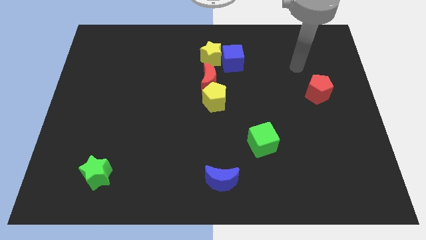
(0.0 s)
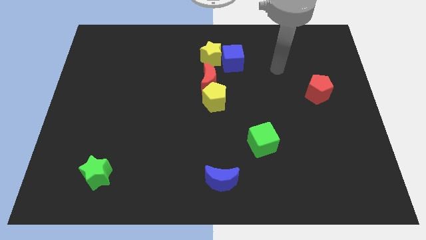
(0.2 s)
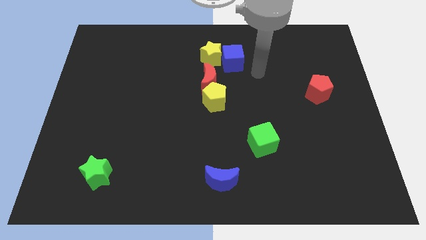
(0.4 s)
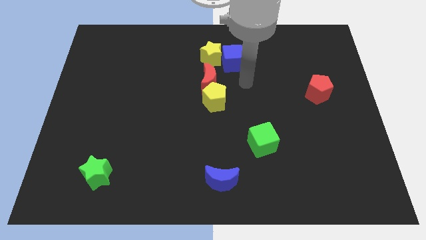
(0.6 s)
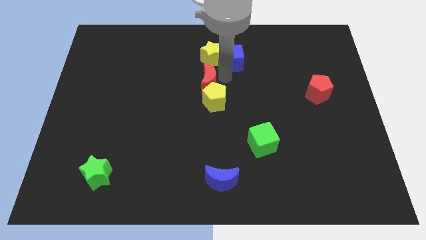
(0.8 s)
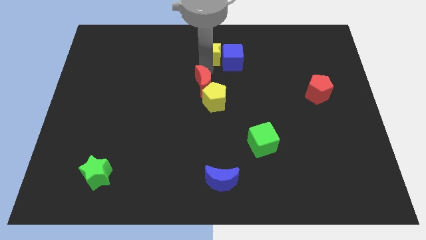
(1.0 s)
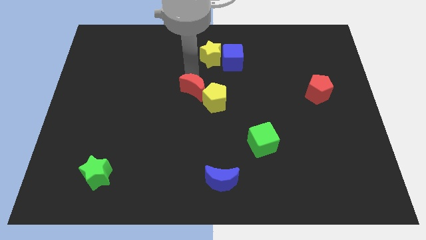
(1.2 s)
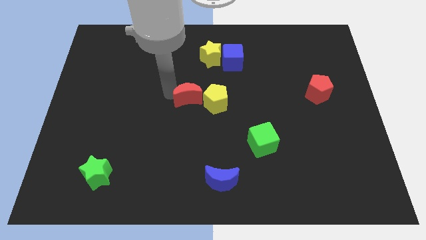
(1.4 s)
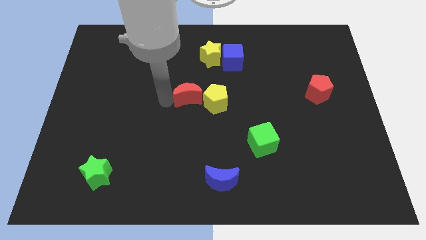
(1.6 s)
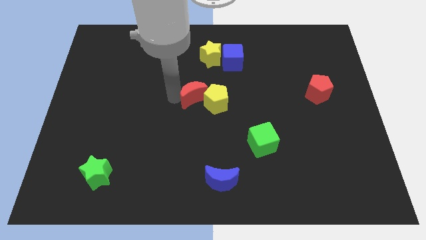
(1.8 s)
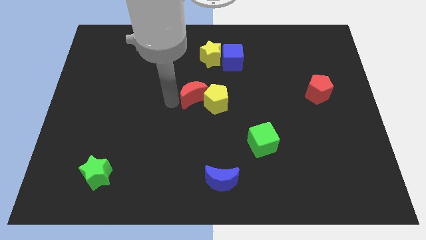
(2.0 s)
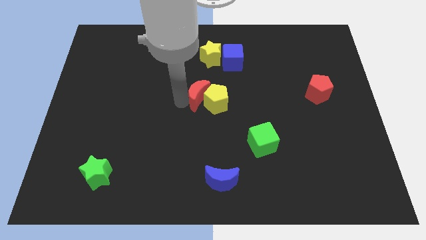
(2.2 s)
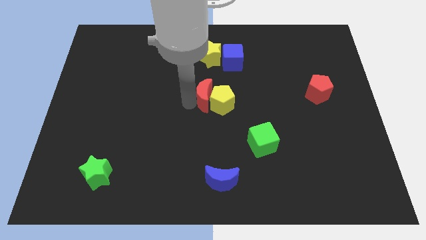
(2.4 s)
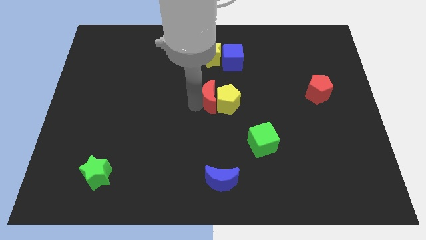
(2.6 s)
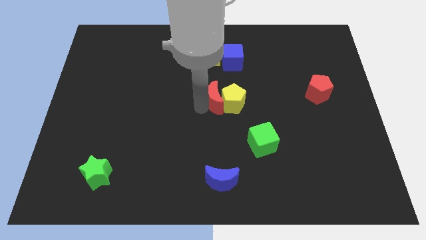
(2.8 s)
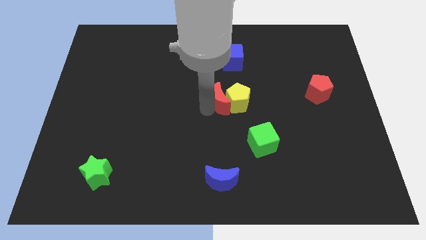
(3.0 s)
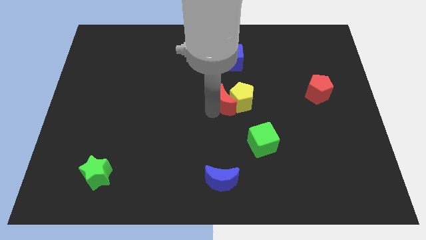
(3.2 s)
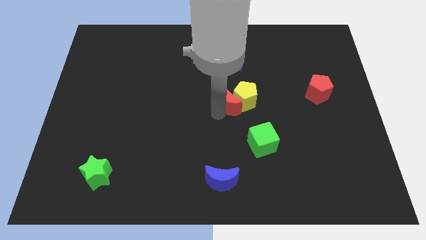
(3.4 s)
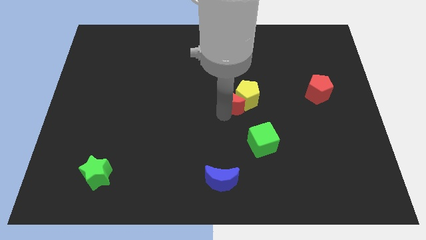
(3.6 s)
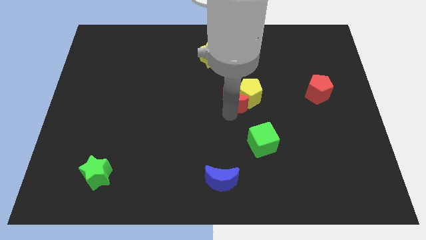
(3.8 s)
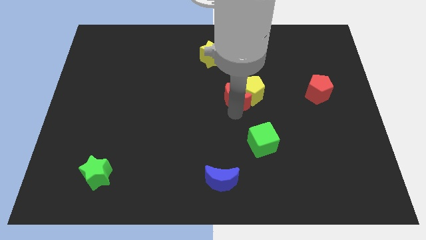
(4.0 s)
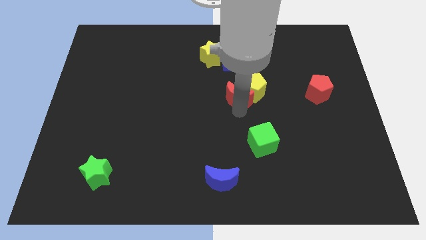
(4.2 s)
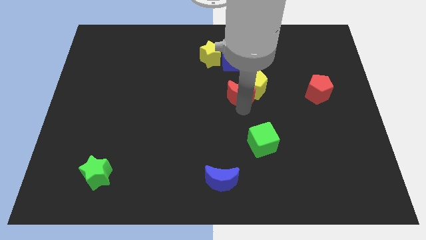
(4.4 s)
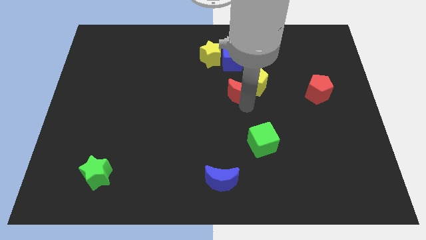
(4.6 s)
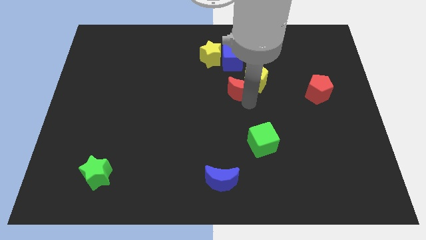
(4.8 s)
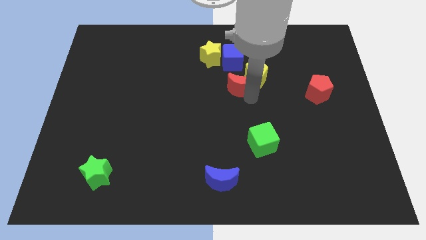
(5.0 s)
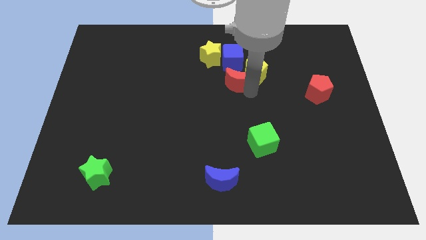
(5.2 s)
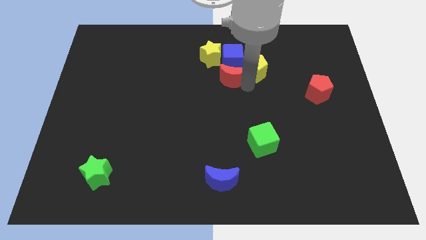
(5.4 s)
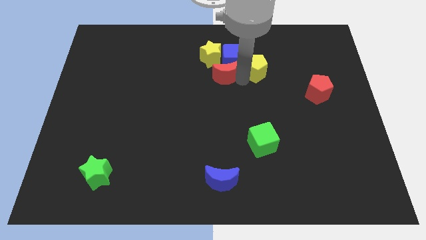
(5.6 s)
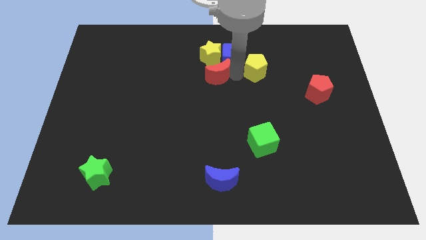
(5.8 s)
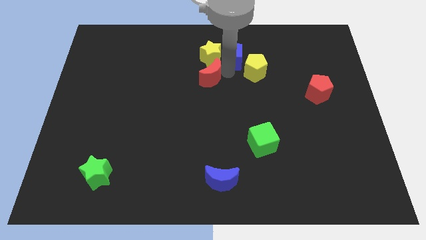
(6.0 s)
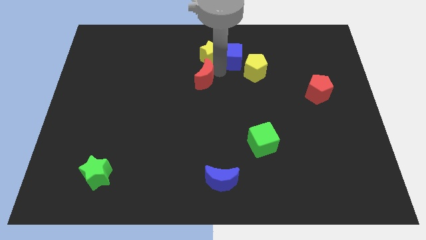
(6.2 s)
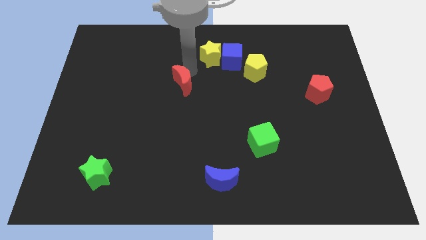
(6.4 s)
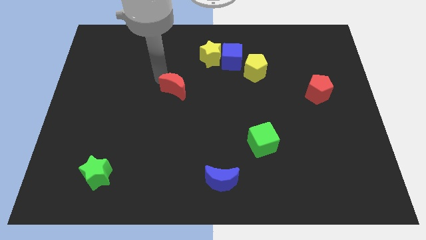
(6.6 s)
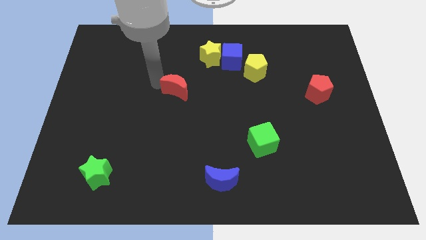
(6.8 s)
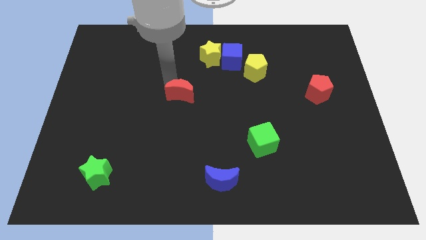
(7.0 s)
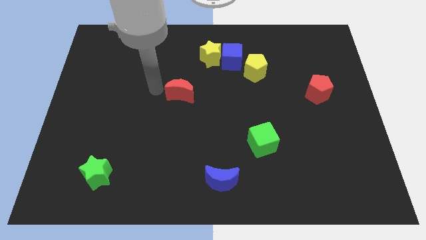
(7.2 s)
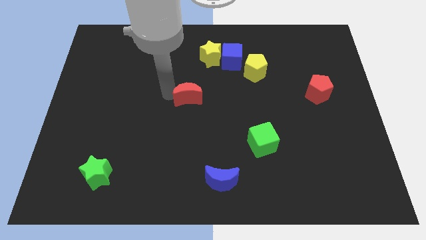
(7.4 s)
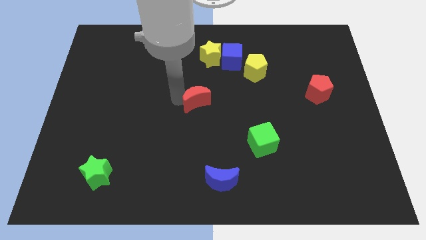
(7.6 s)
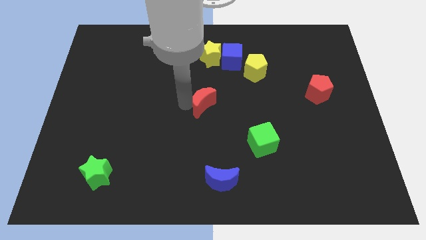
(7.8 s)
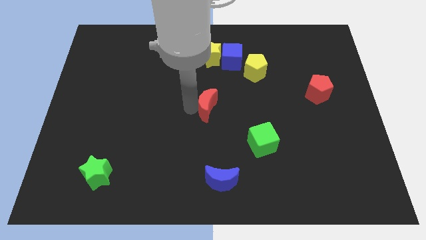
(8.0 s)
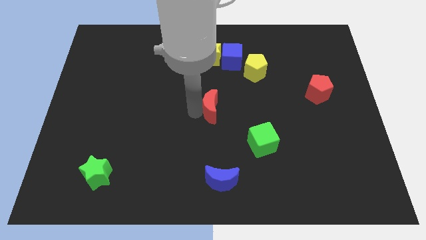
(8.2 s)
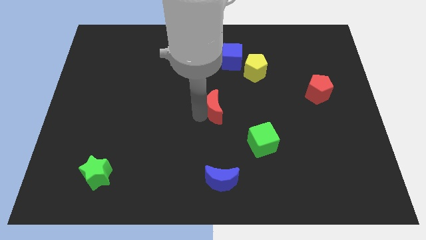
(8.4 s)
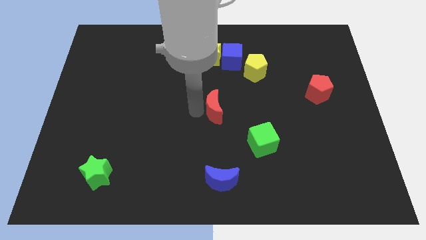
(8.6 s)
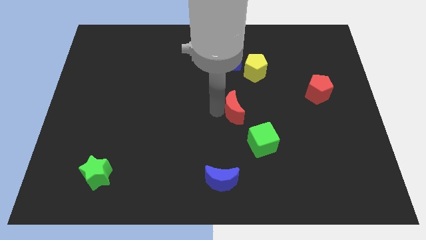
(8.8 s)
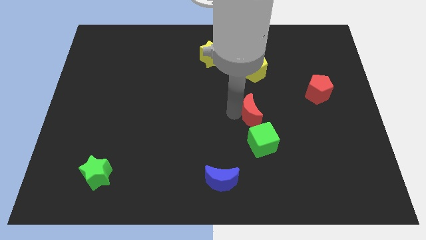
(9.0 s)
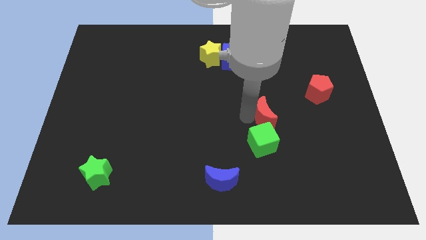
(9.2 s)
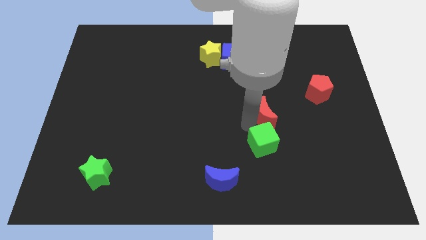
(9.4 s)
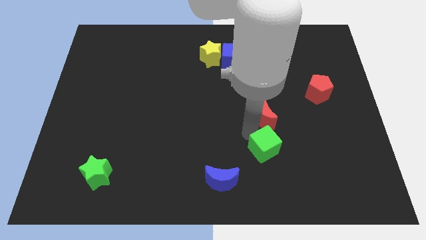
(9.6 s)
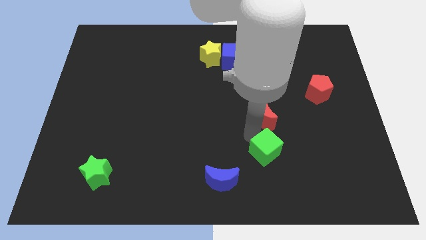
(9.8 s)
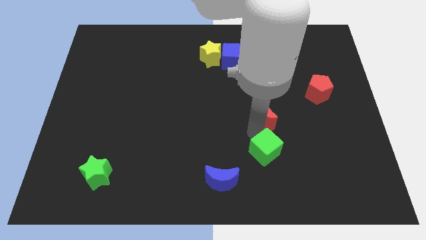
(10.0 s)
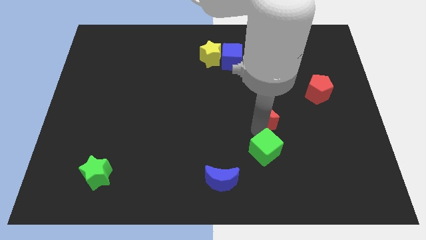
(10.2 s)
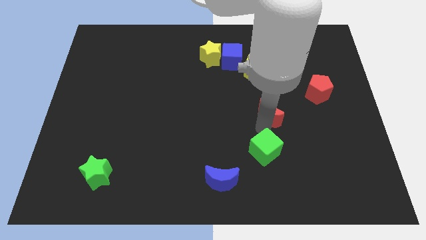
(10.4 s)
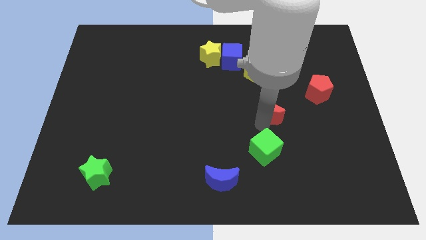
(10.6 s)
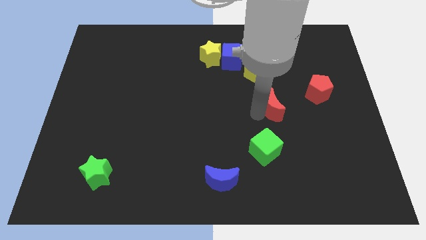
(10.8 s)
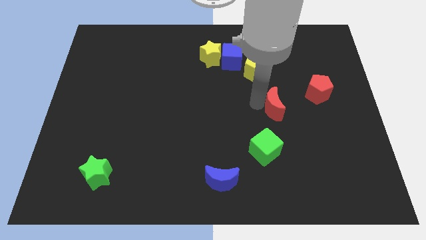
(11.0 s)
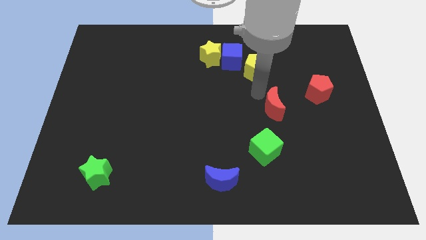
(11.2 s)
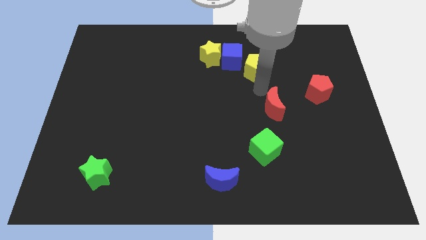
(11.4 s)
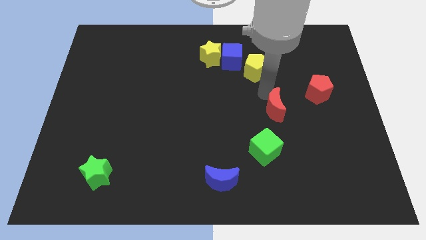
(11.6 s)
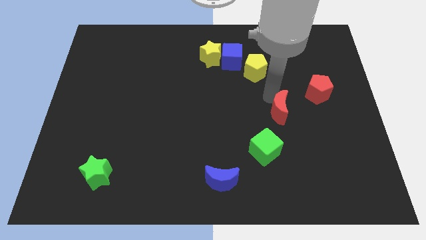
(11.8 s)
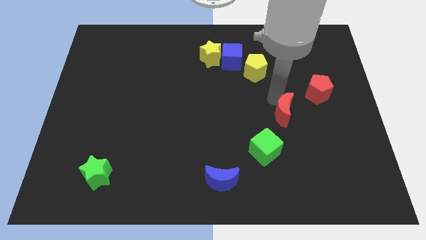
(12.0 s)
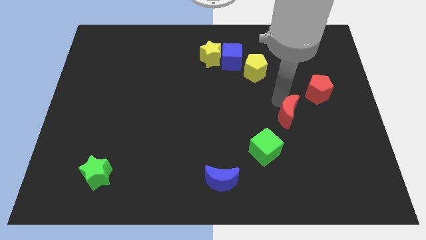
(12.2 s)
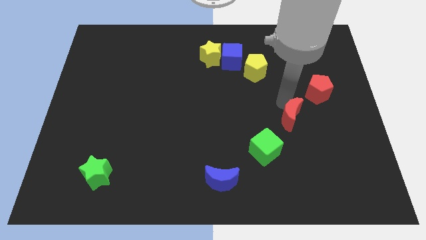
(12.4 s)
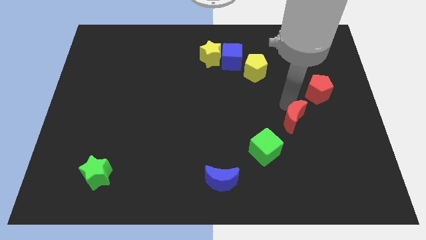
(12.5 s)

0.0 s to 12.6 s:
push the red moon diagonally down and to the right

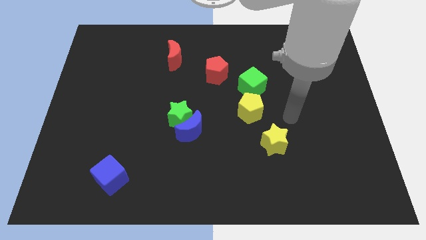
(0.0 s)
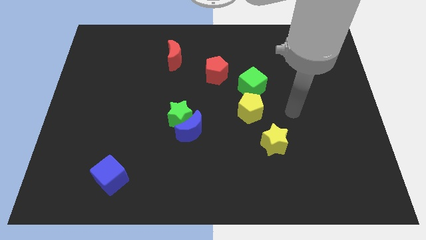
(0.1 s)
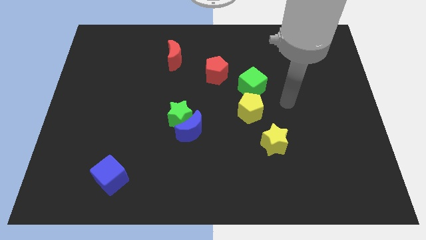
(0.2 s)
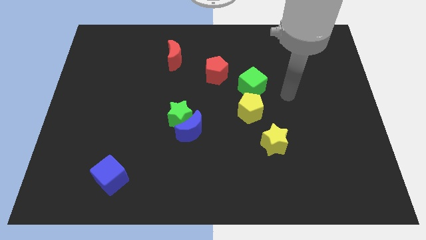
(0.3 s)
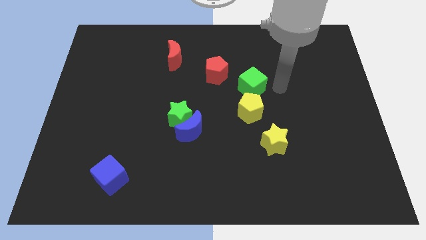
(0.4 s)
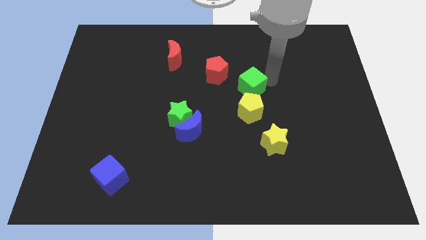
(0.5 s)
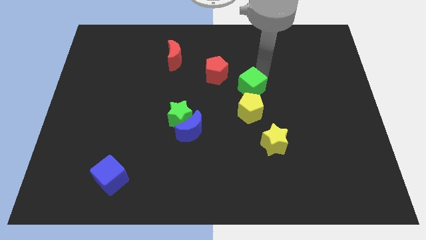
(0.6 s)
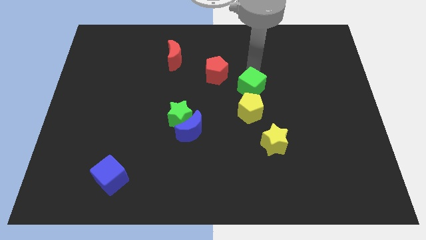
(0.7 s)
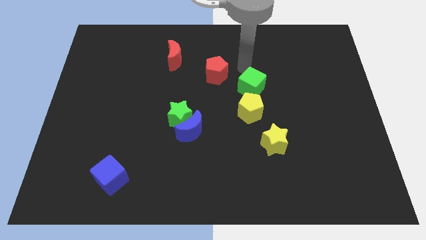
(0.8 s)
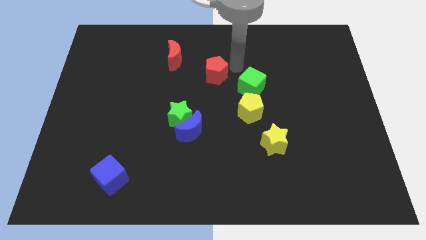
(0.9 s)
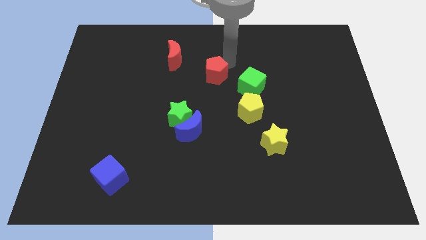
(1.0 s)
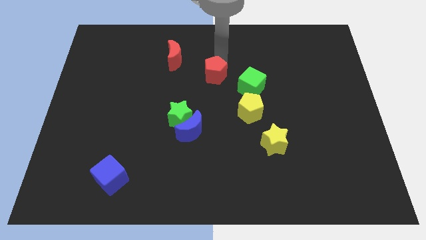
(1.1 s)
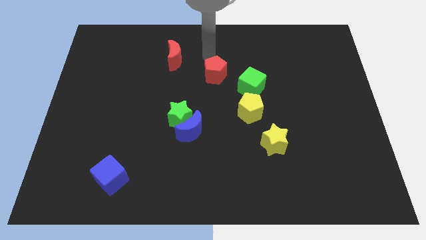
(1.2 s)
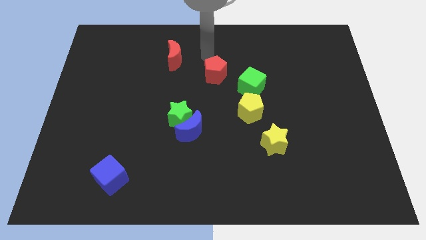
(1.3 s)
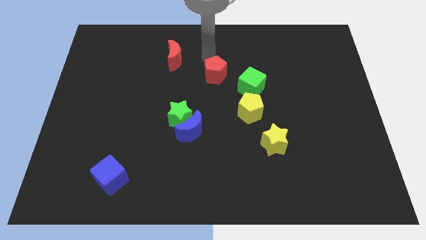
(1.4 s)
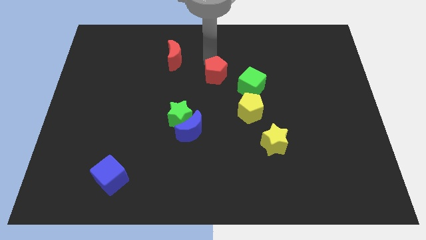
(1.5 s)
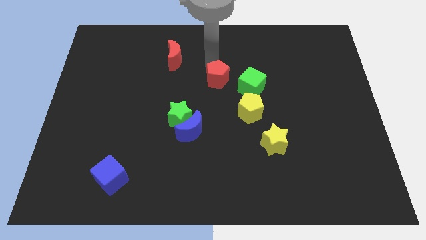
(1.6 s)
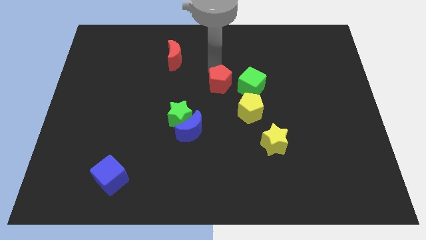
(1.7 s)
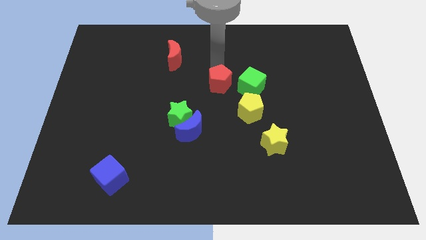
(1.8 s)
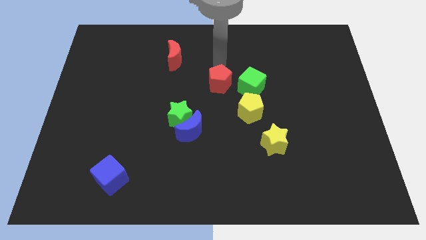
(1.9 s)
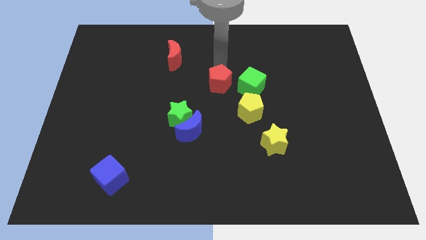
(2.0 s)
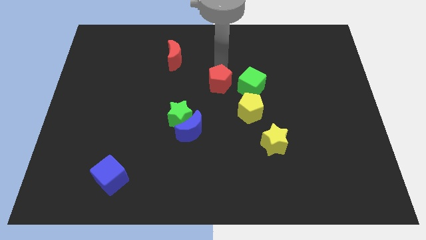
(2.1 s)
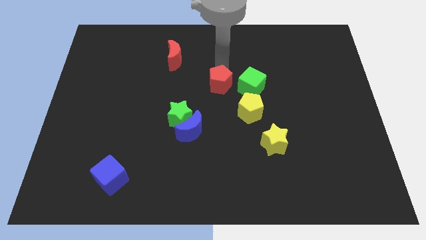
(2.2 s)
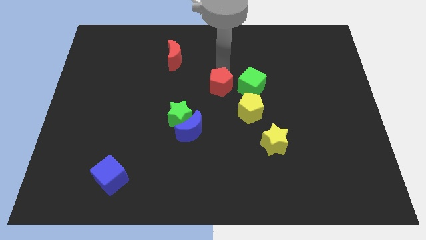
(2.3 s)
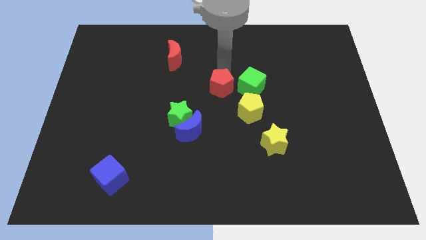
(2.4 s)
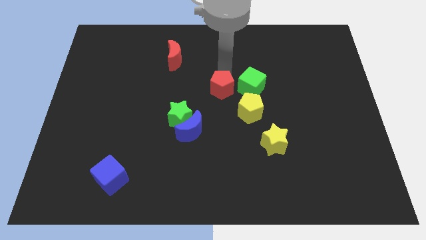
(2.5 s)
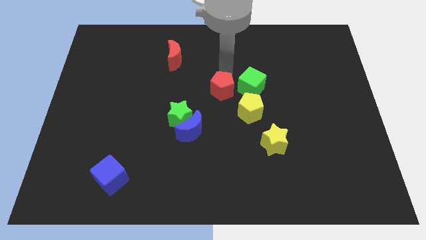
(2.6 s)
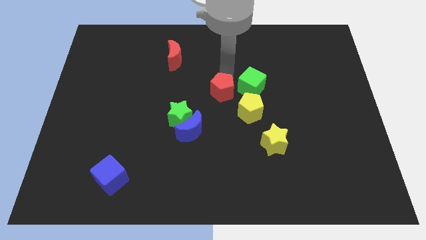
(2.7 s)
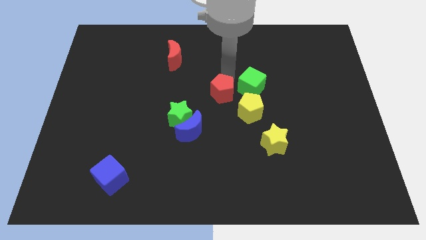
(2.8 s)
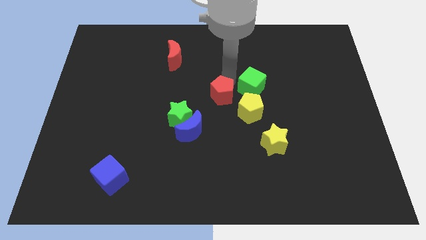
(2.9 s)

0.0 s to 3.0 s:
slightly slide the red pentagon downwards
